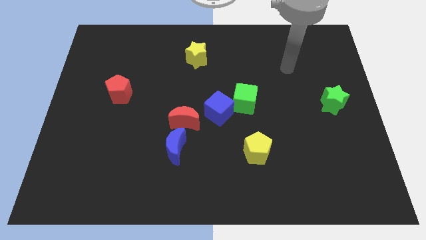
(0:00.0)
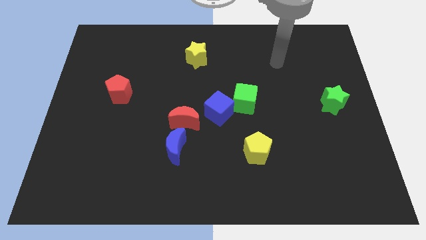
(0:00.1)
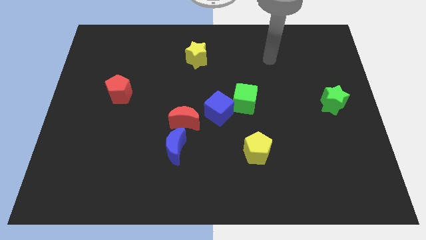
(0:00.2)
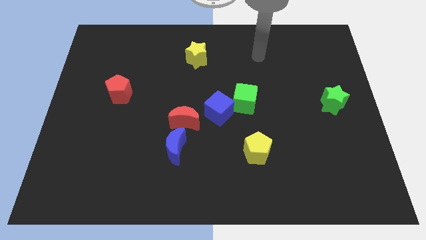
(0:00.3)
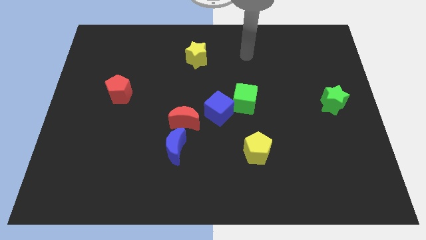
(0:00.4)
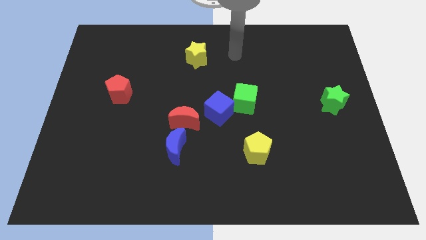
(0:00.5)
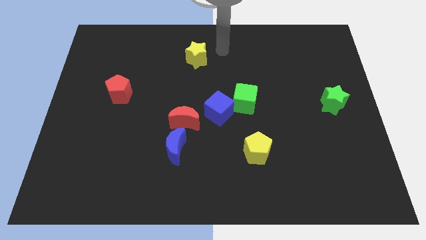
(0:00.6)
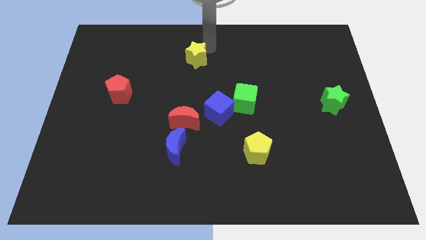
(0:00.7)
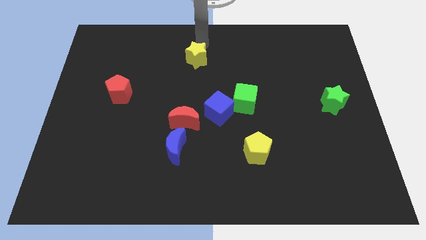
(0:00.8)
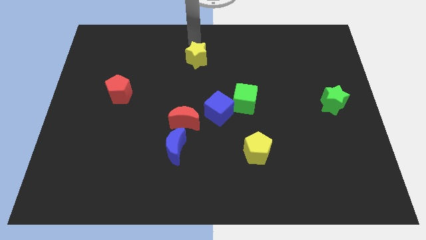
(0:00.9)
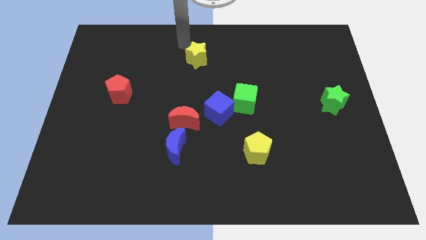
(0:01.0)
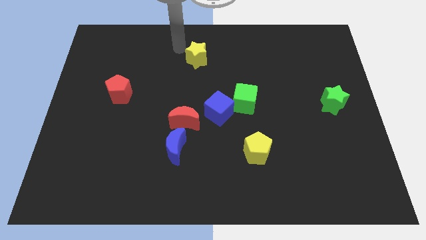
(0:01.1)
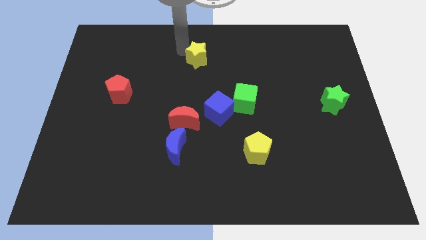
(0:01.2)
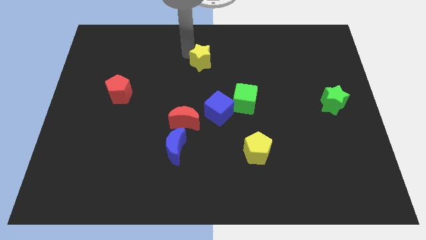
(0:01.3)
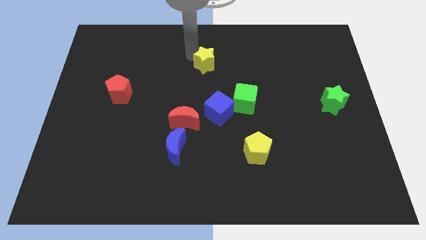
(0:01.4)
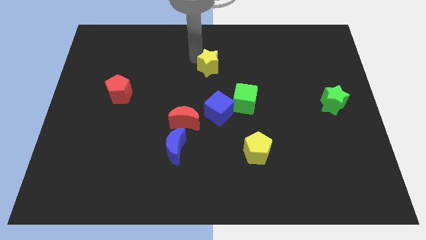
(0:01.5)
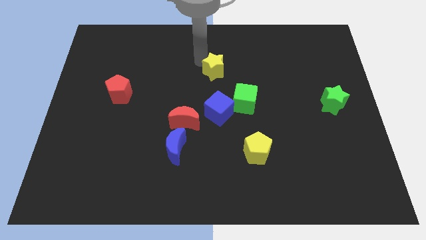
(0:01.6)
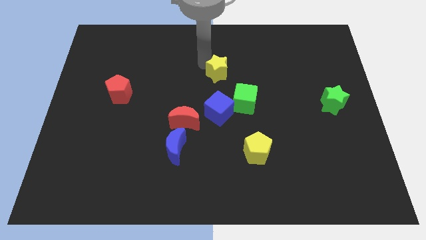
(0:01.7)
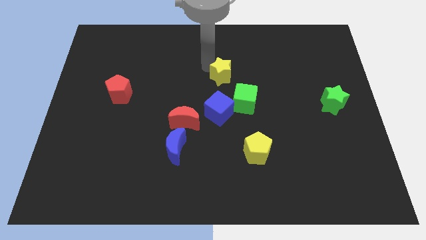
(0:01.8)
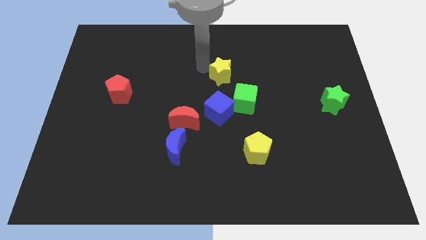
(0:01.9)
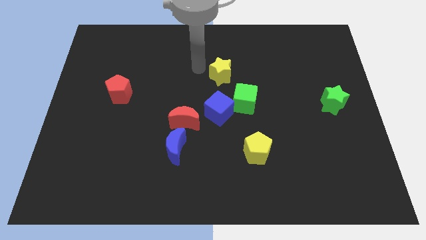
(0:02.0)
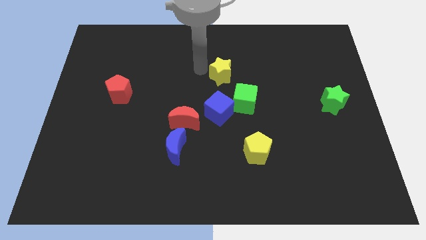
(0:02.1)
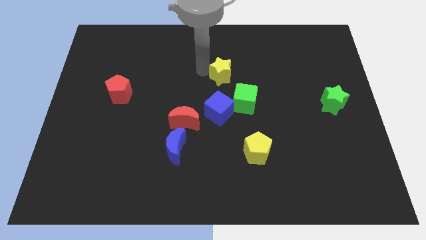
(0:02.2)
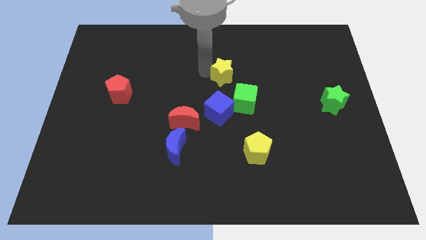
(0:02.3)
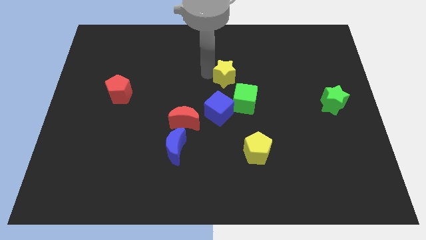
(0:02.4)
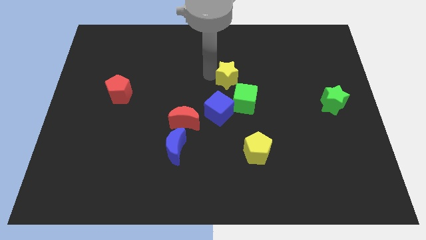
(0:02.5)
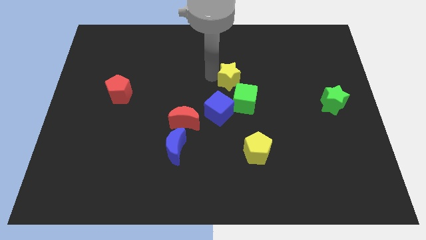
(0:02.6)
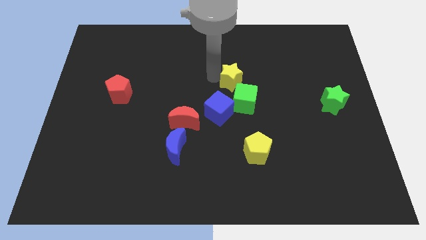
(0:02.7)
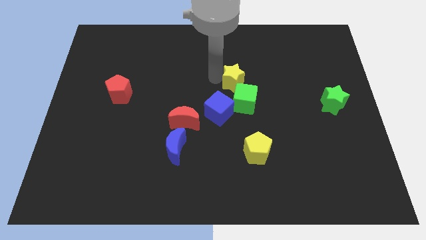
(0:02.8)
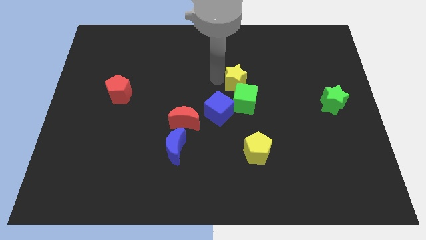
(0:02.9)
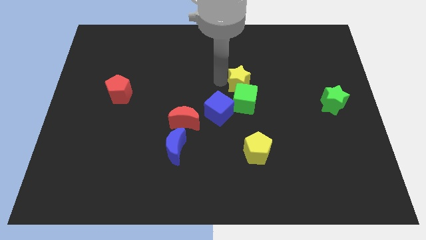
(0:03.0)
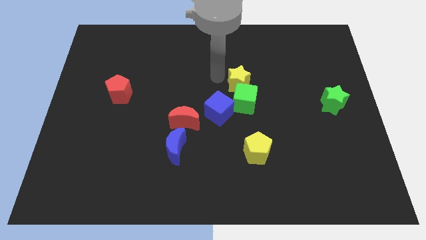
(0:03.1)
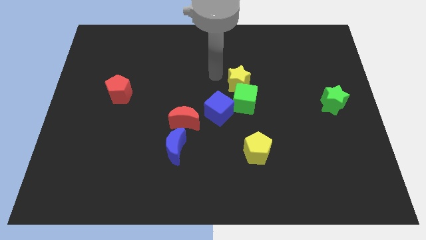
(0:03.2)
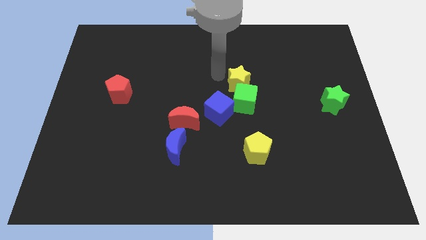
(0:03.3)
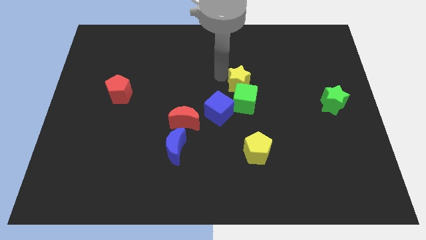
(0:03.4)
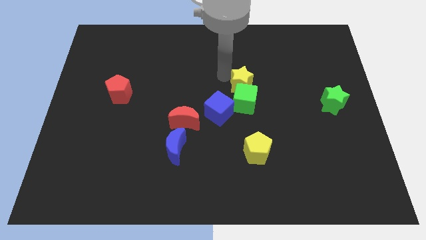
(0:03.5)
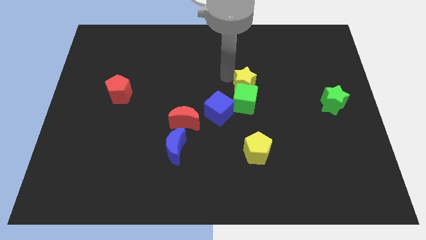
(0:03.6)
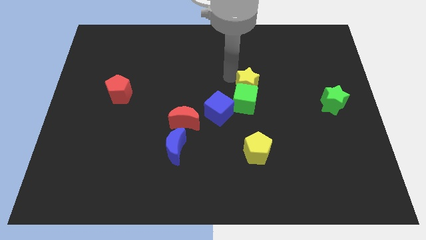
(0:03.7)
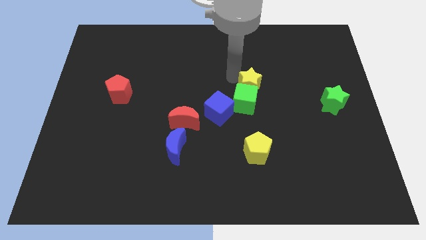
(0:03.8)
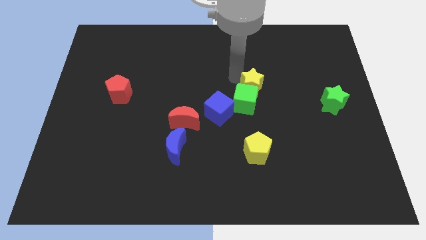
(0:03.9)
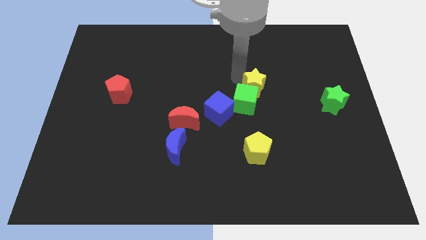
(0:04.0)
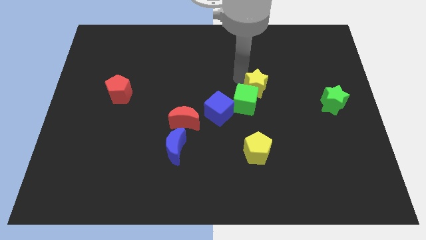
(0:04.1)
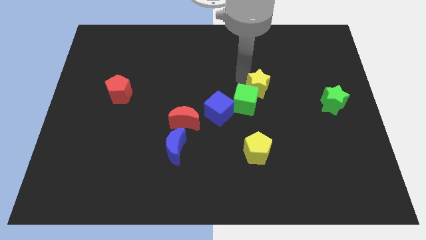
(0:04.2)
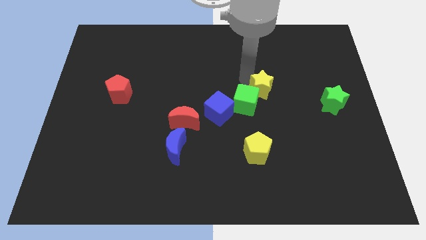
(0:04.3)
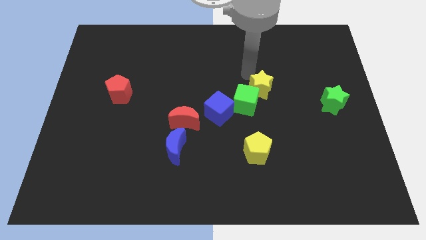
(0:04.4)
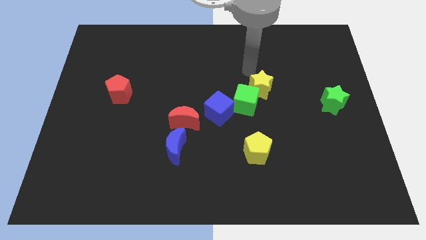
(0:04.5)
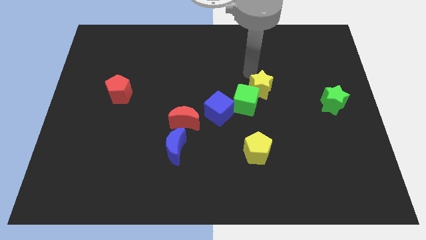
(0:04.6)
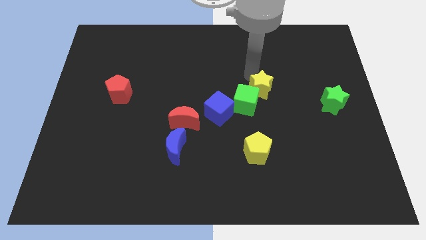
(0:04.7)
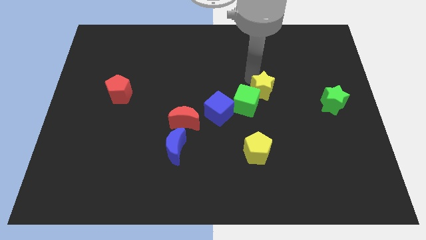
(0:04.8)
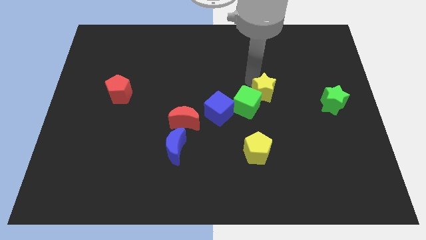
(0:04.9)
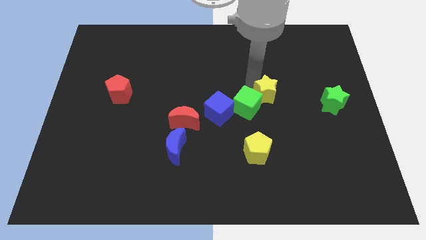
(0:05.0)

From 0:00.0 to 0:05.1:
push the yellow star diagonally downwards and to the right

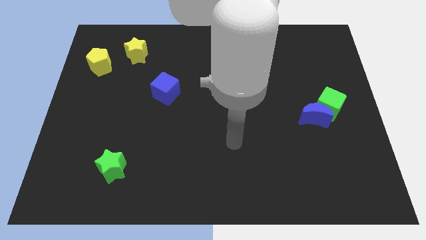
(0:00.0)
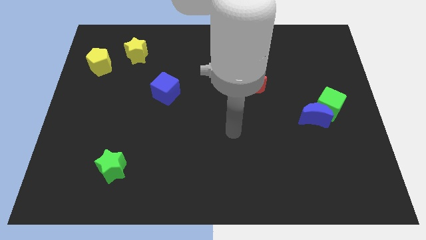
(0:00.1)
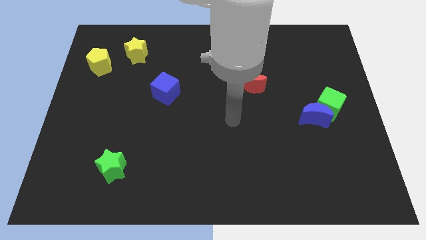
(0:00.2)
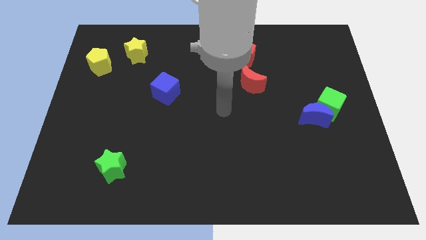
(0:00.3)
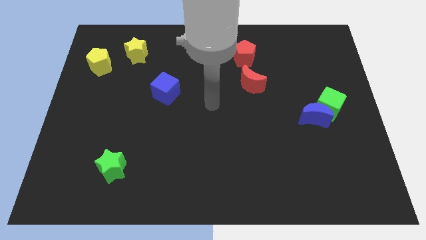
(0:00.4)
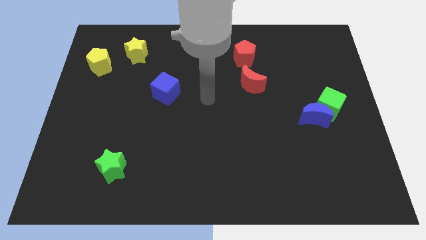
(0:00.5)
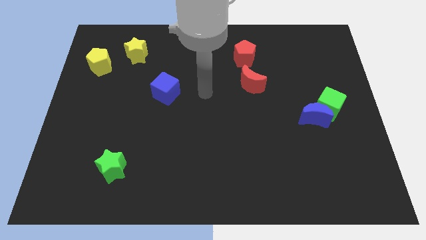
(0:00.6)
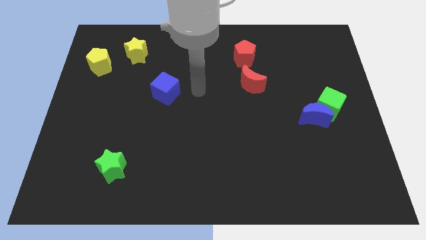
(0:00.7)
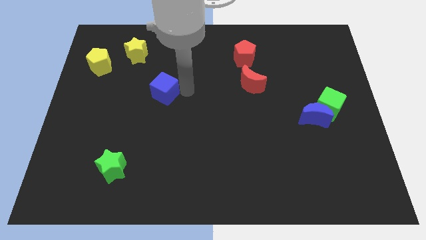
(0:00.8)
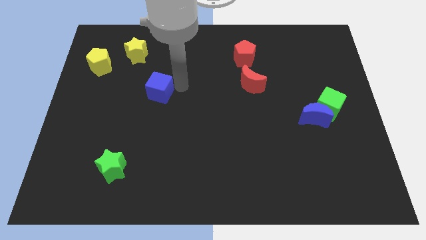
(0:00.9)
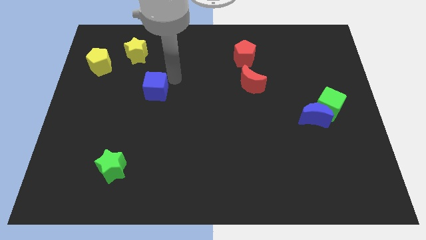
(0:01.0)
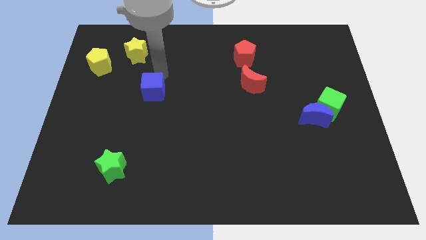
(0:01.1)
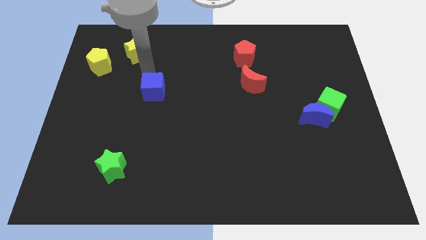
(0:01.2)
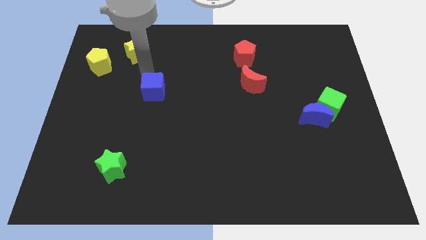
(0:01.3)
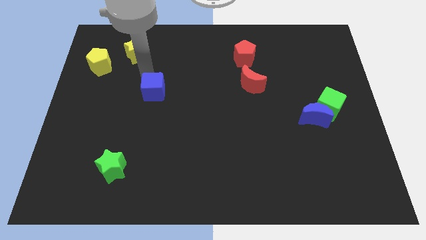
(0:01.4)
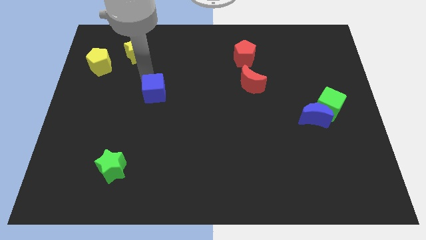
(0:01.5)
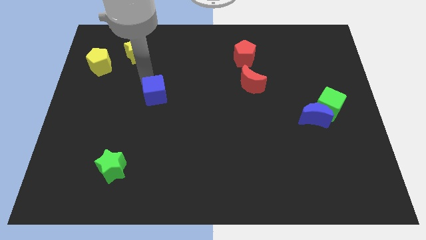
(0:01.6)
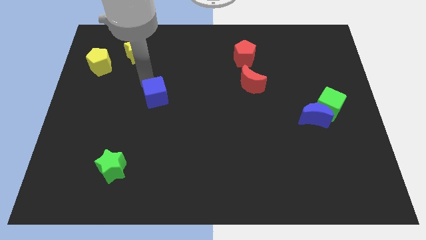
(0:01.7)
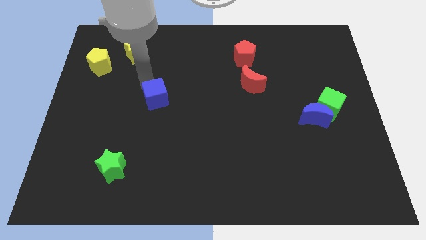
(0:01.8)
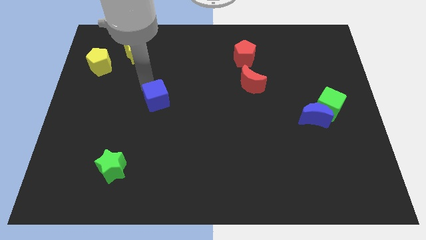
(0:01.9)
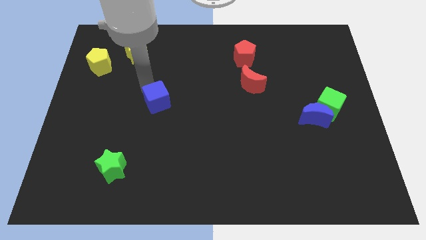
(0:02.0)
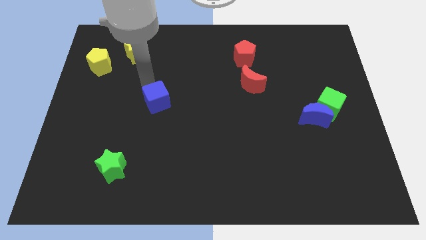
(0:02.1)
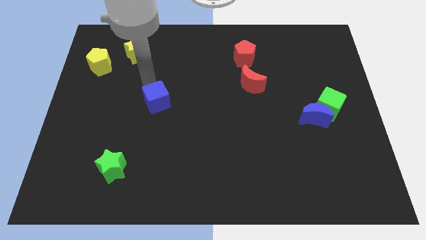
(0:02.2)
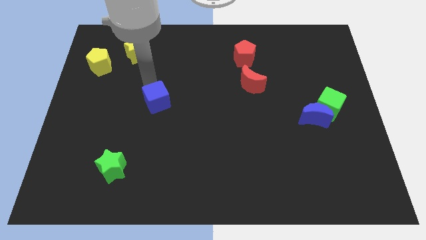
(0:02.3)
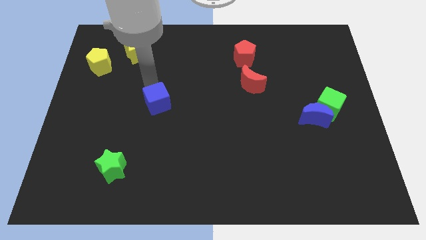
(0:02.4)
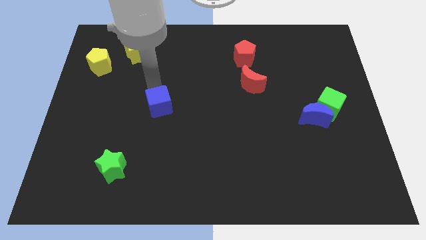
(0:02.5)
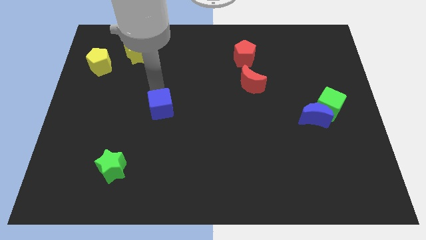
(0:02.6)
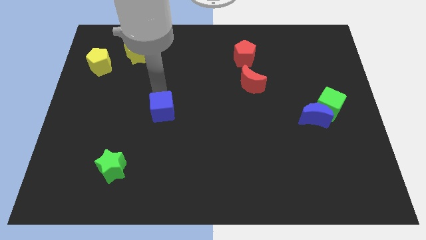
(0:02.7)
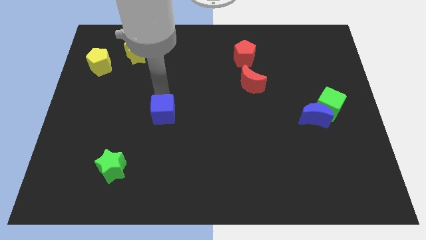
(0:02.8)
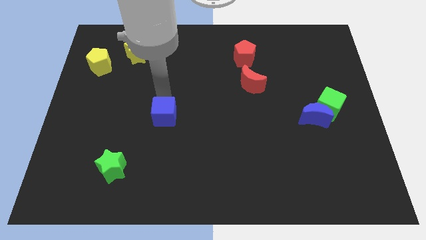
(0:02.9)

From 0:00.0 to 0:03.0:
move the blue cube a bit down
